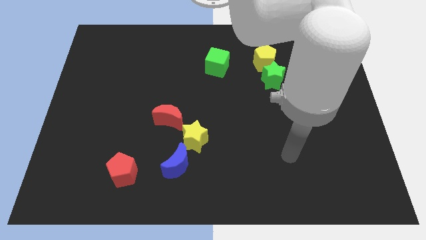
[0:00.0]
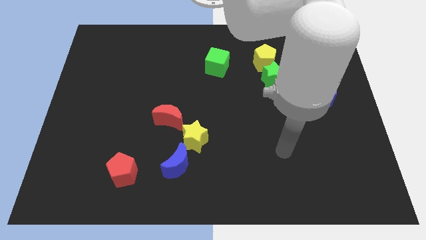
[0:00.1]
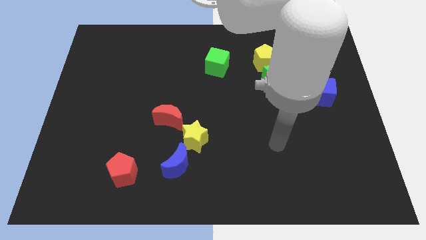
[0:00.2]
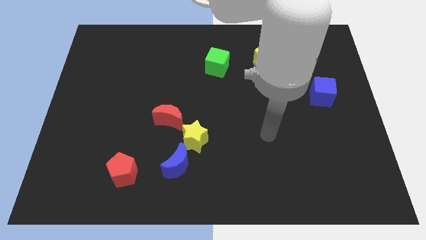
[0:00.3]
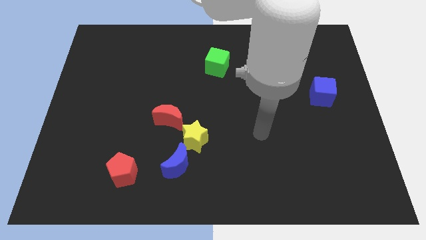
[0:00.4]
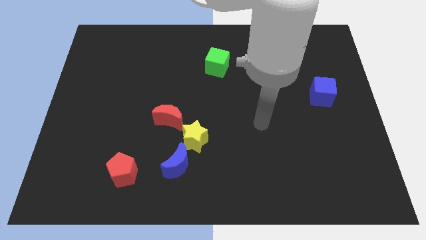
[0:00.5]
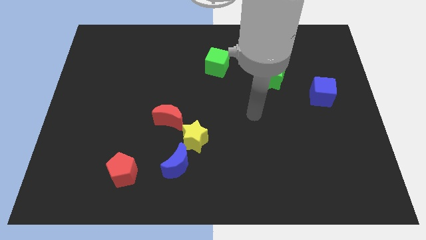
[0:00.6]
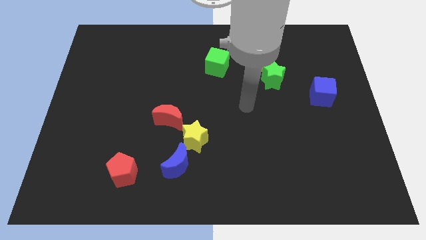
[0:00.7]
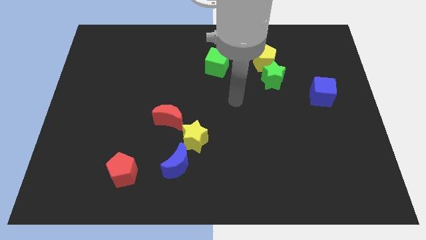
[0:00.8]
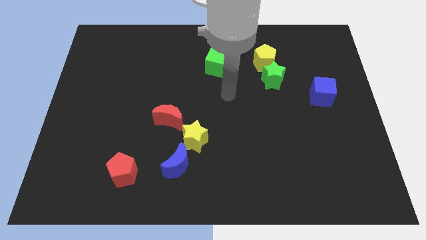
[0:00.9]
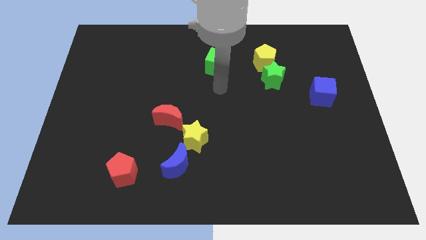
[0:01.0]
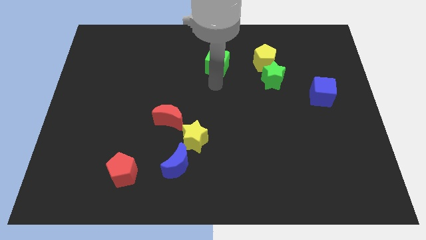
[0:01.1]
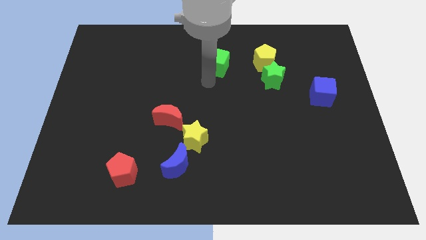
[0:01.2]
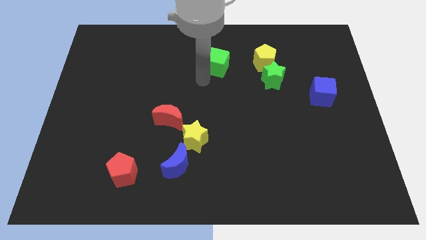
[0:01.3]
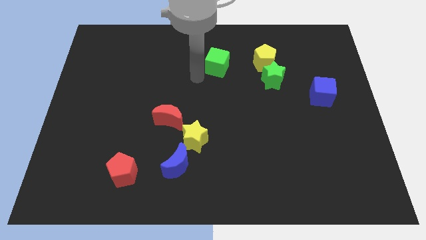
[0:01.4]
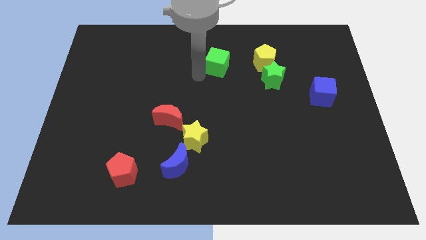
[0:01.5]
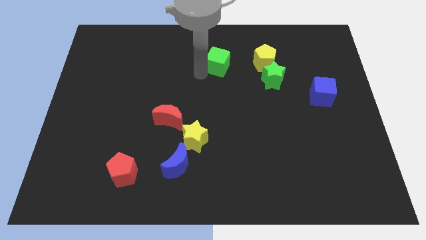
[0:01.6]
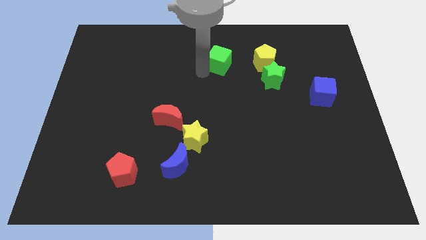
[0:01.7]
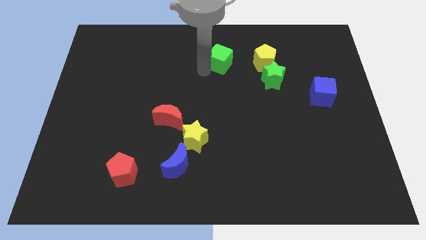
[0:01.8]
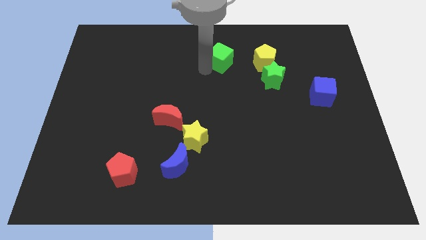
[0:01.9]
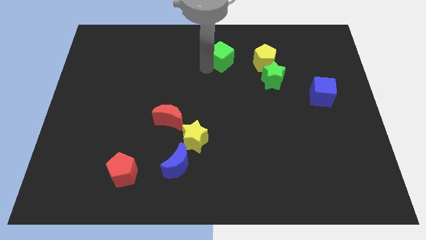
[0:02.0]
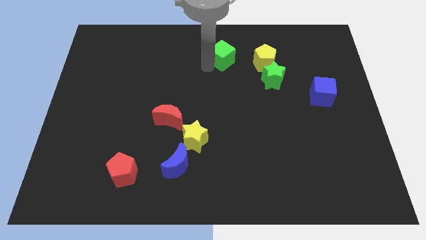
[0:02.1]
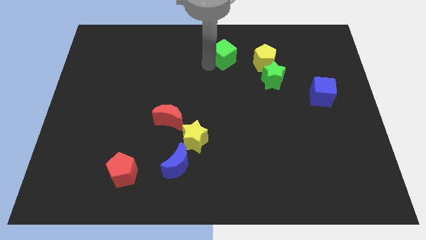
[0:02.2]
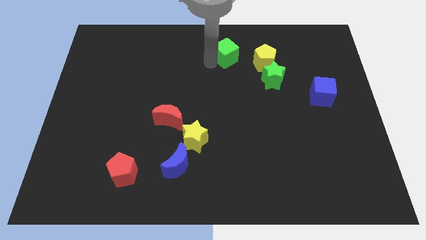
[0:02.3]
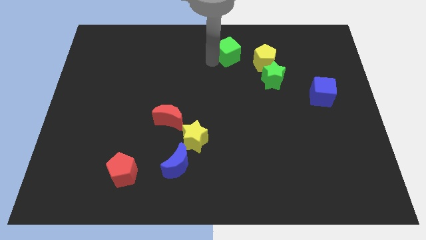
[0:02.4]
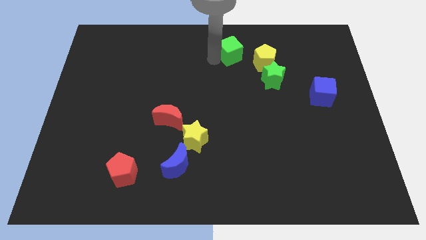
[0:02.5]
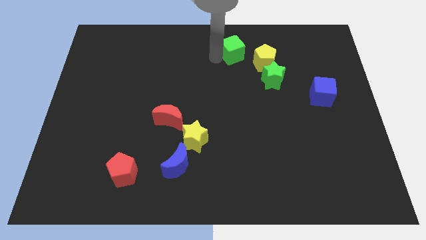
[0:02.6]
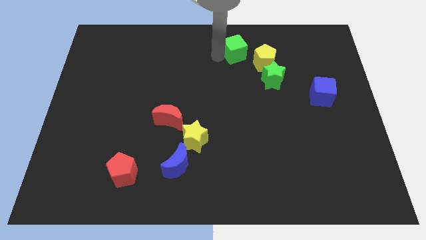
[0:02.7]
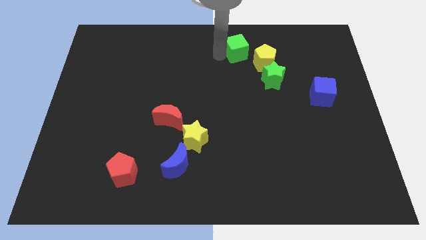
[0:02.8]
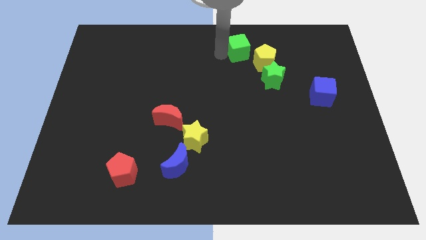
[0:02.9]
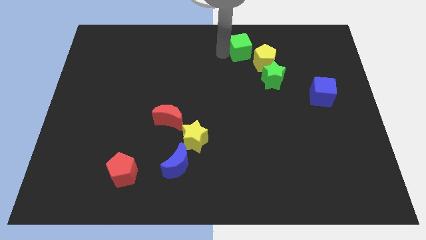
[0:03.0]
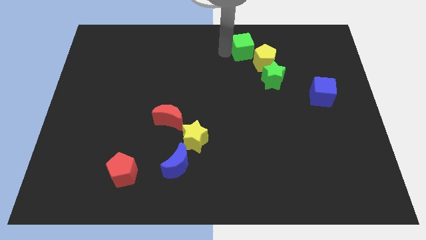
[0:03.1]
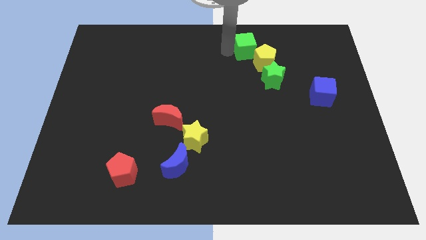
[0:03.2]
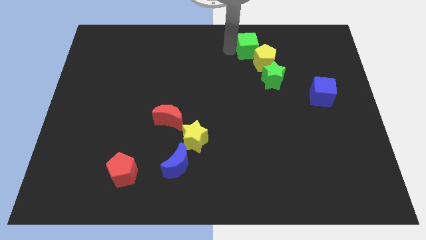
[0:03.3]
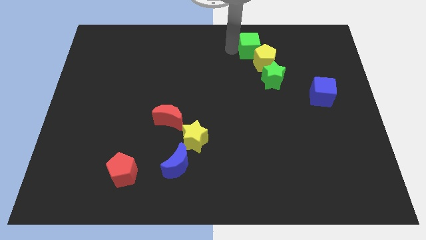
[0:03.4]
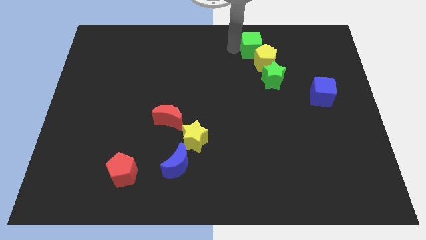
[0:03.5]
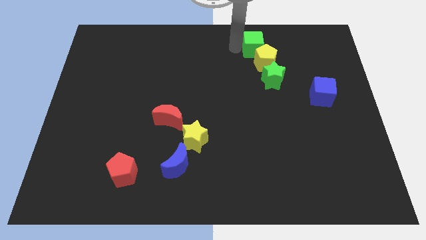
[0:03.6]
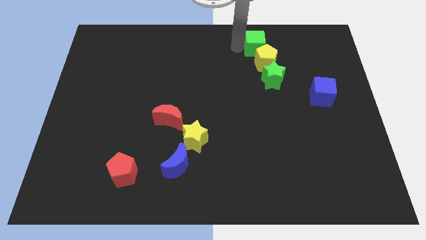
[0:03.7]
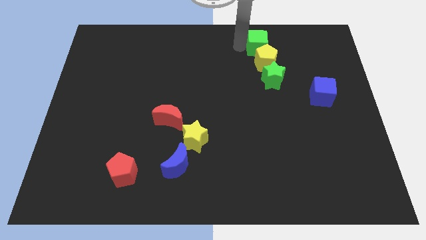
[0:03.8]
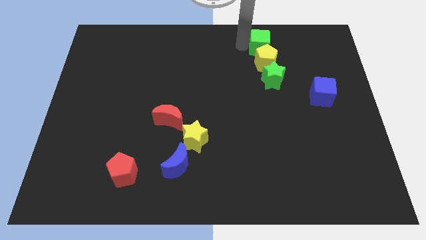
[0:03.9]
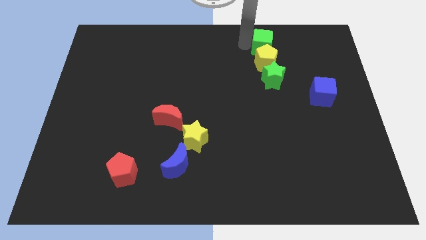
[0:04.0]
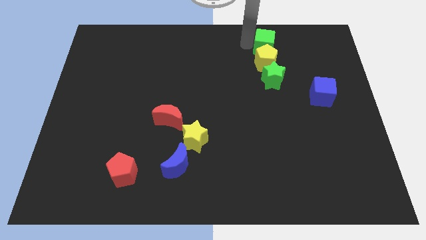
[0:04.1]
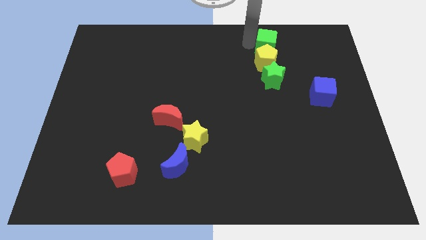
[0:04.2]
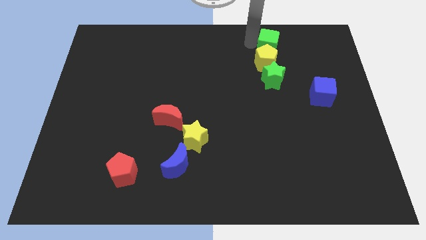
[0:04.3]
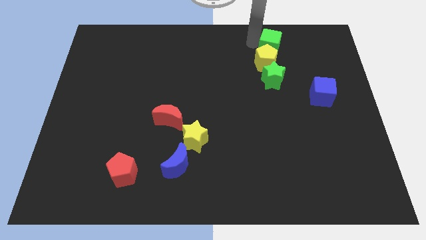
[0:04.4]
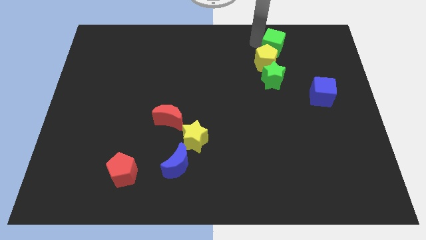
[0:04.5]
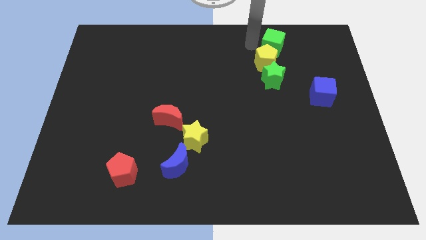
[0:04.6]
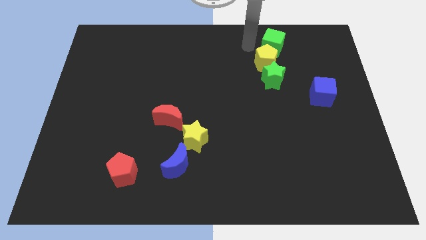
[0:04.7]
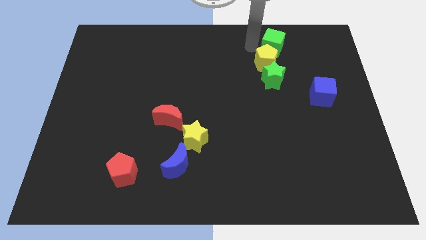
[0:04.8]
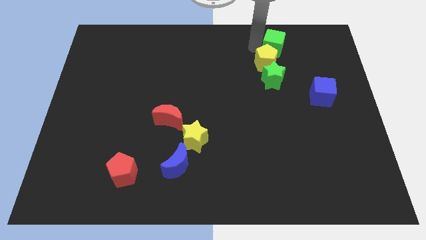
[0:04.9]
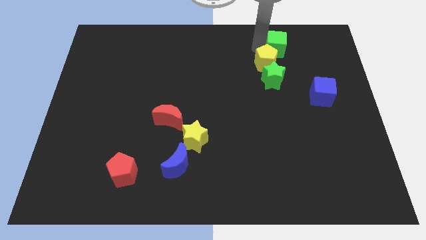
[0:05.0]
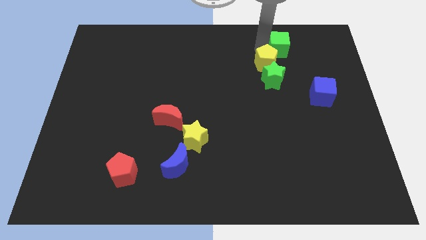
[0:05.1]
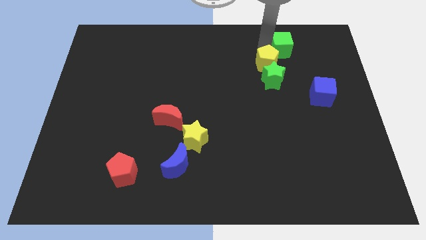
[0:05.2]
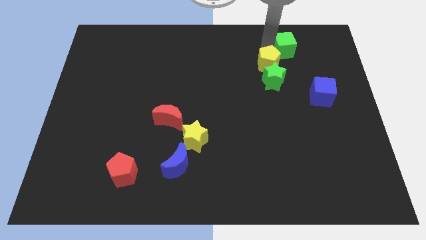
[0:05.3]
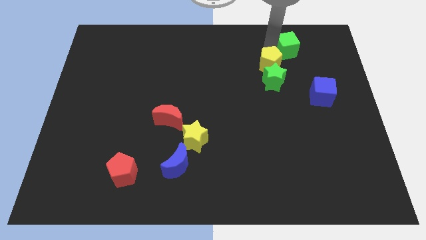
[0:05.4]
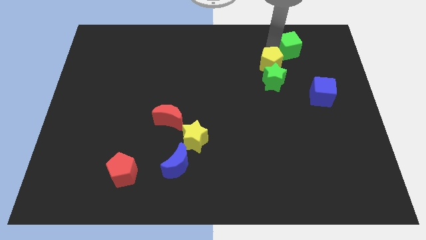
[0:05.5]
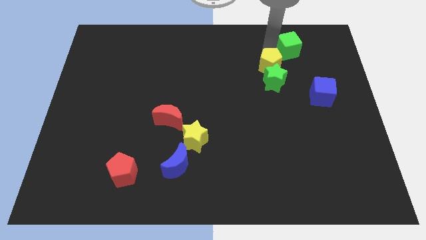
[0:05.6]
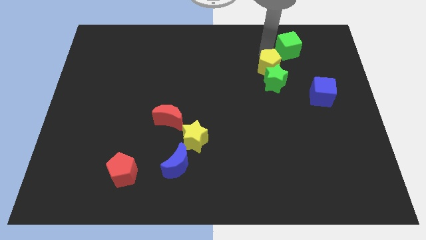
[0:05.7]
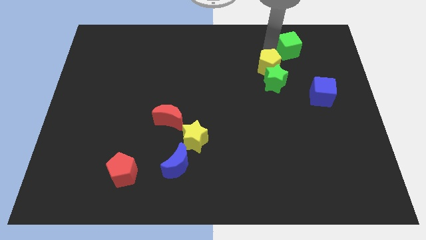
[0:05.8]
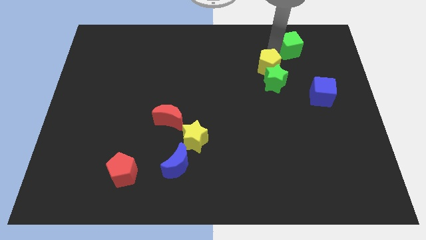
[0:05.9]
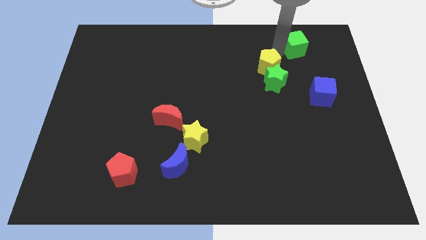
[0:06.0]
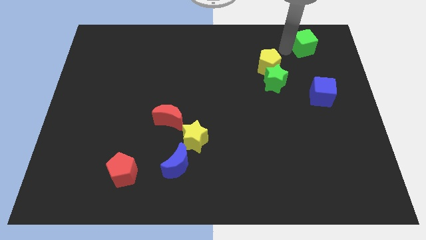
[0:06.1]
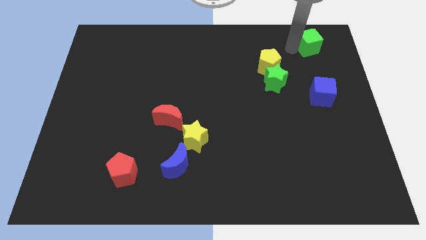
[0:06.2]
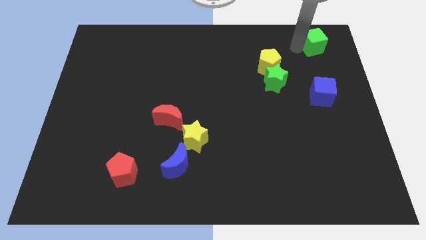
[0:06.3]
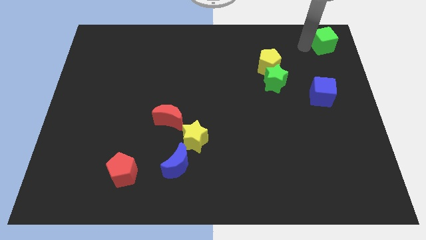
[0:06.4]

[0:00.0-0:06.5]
push the green cube to the top right
